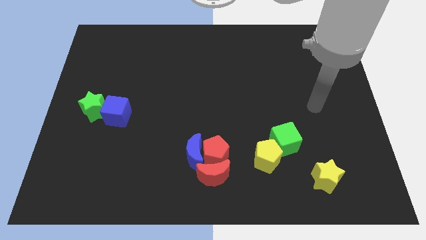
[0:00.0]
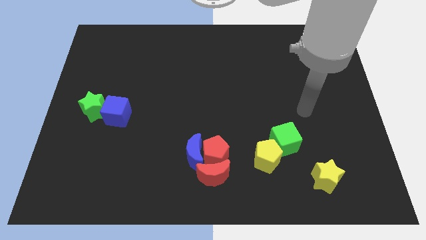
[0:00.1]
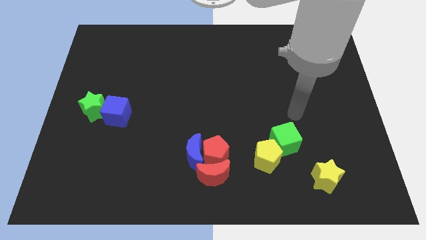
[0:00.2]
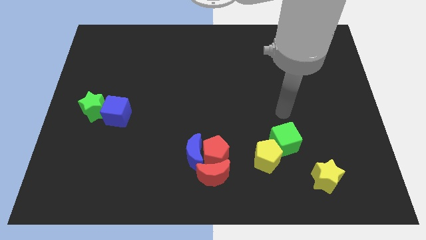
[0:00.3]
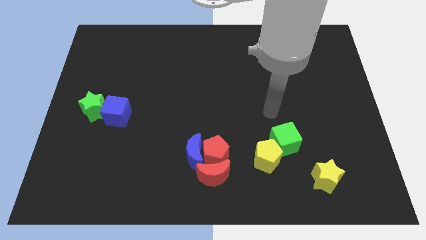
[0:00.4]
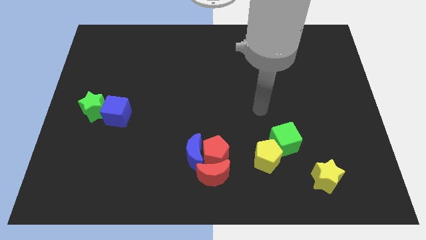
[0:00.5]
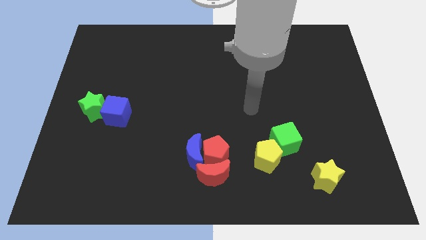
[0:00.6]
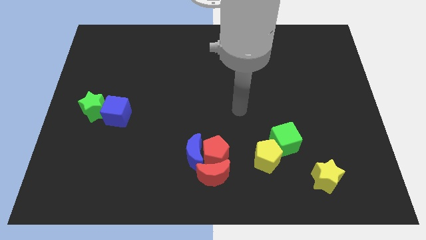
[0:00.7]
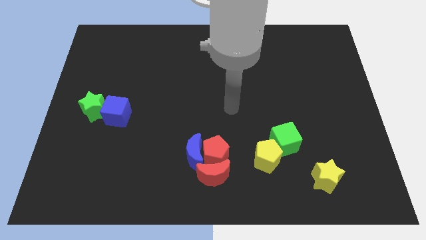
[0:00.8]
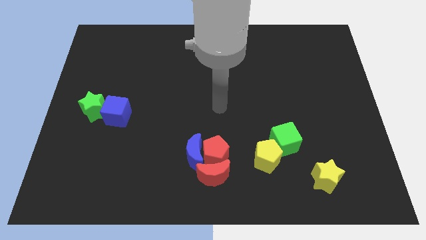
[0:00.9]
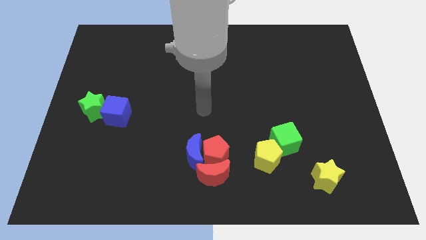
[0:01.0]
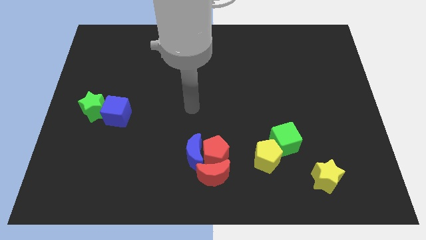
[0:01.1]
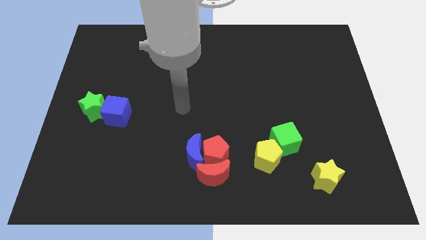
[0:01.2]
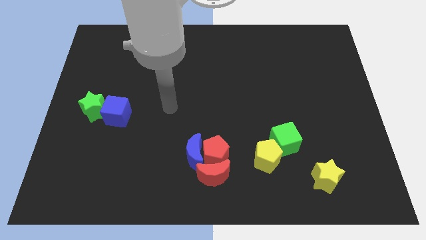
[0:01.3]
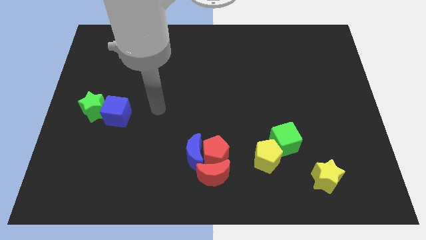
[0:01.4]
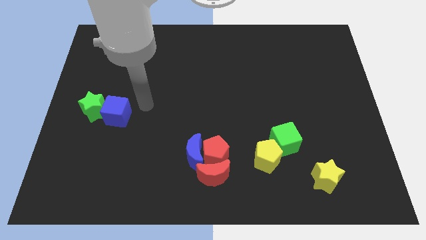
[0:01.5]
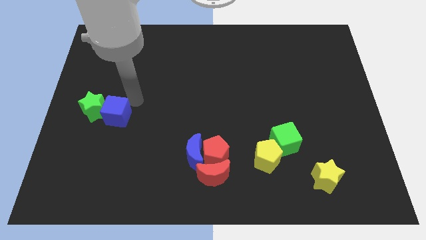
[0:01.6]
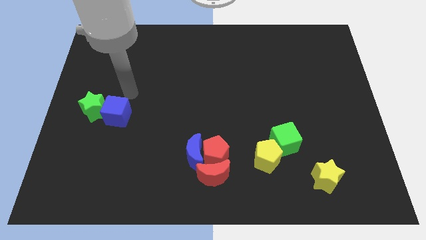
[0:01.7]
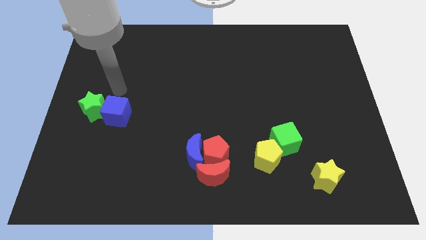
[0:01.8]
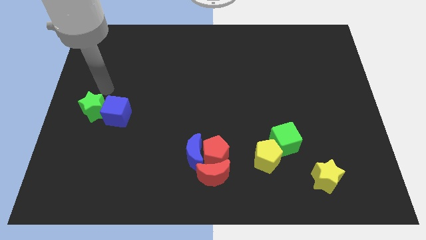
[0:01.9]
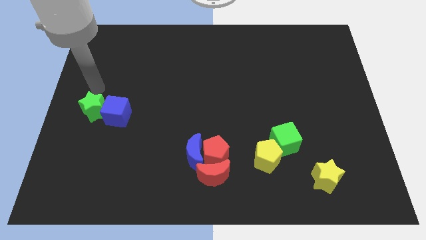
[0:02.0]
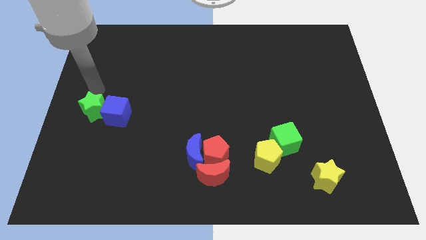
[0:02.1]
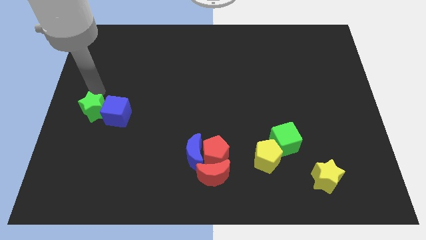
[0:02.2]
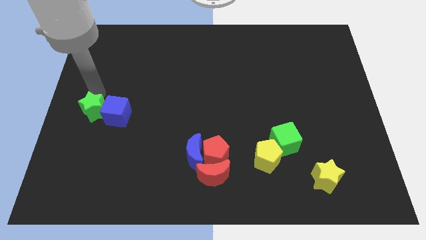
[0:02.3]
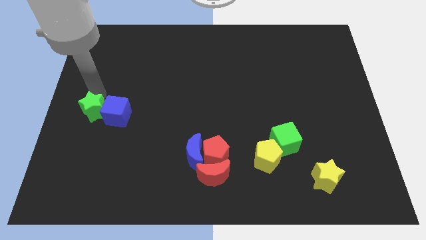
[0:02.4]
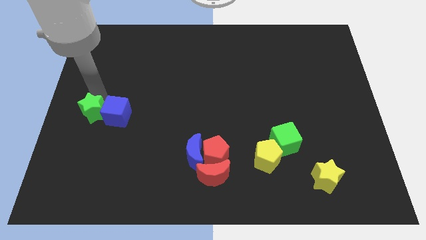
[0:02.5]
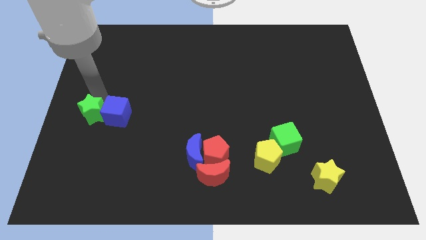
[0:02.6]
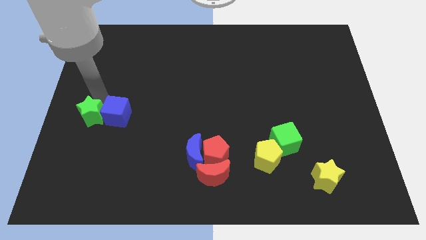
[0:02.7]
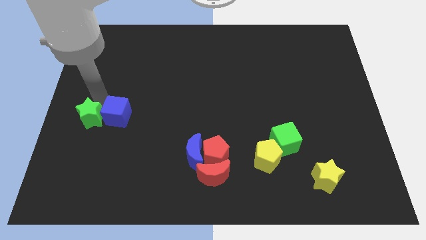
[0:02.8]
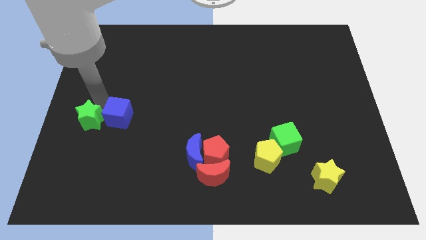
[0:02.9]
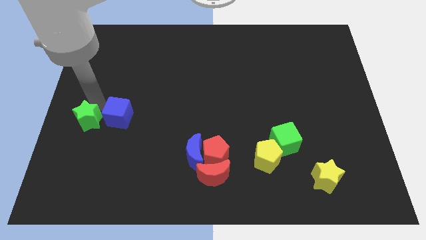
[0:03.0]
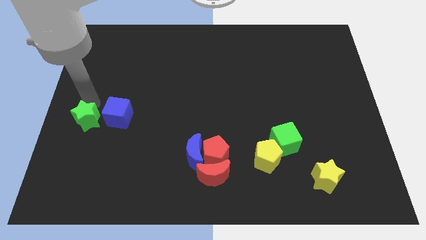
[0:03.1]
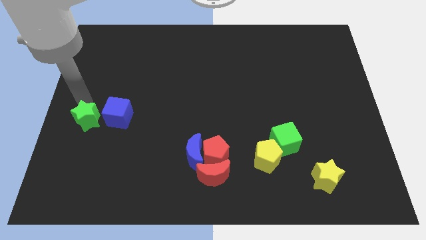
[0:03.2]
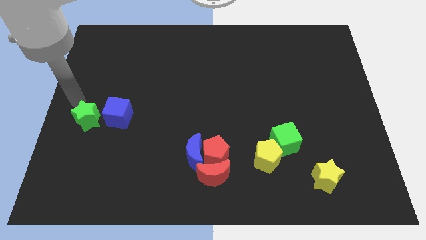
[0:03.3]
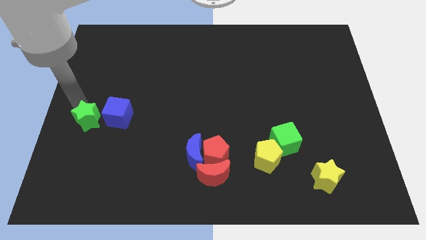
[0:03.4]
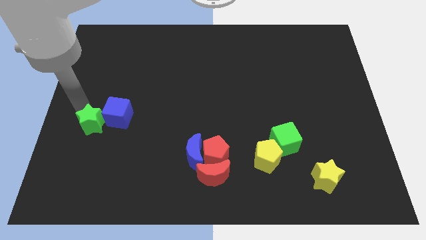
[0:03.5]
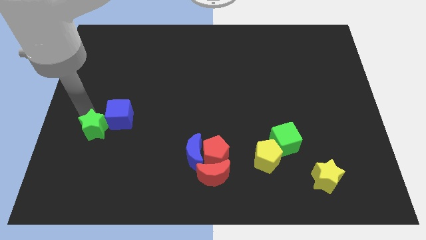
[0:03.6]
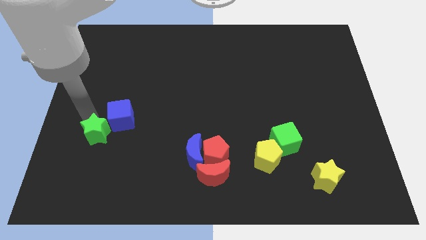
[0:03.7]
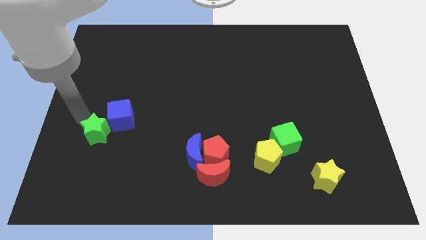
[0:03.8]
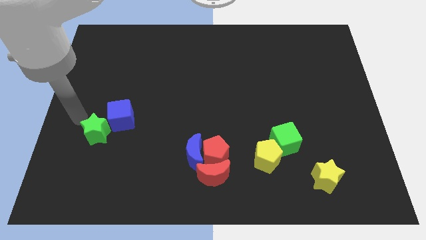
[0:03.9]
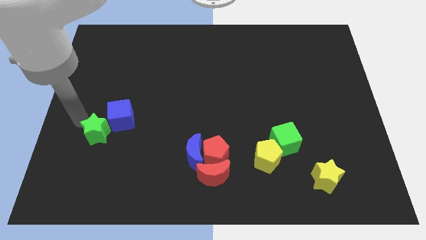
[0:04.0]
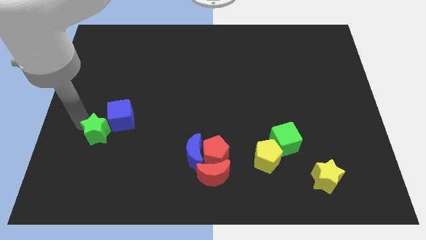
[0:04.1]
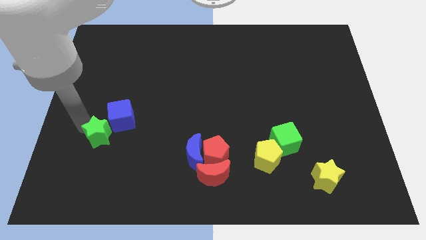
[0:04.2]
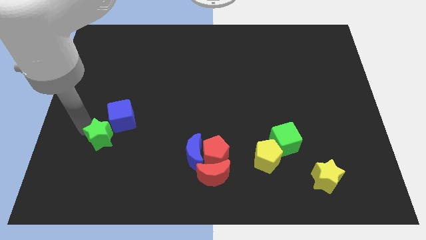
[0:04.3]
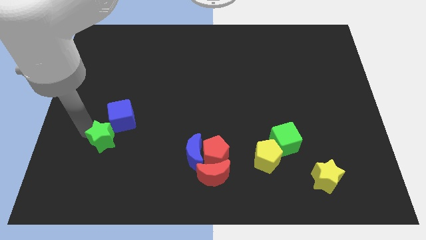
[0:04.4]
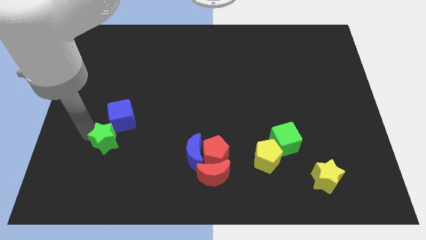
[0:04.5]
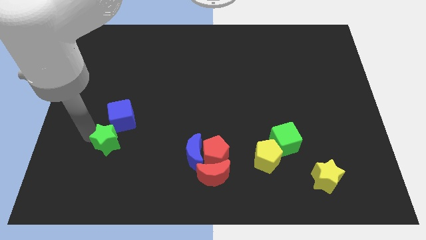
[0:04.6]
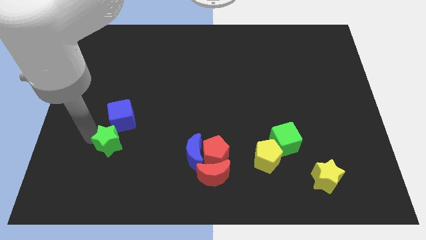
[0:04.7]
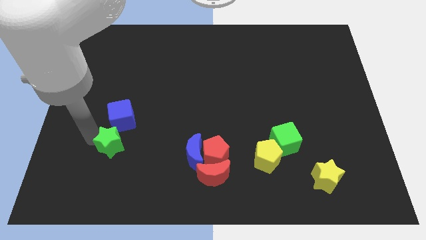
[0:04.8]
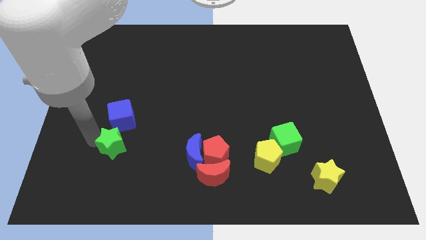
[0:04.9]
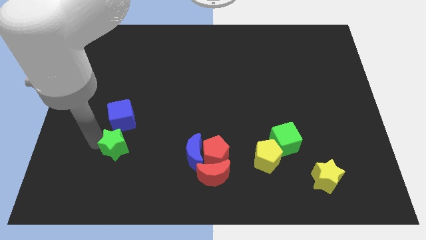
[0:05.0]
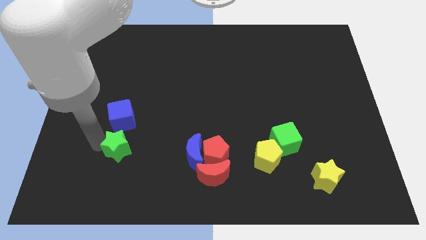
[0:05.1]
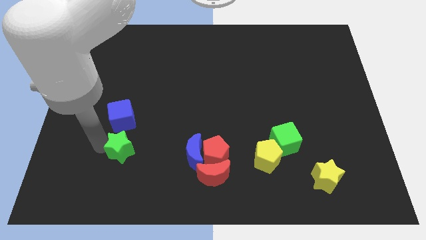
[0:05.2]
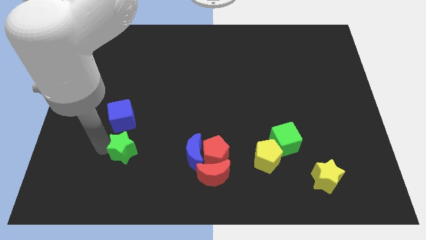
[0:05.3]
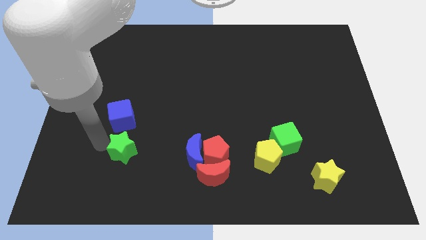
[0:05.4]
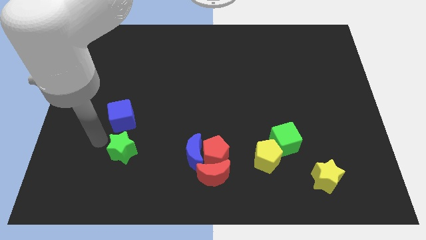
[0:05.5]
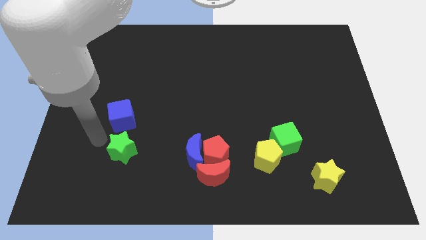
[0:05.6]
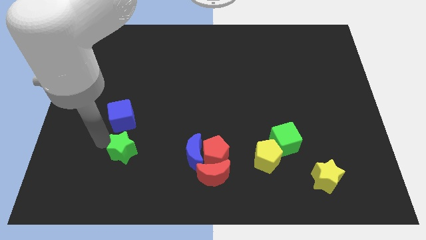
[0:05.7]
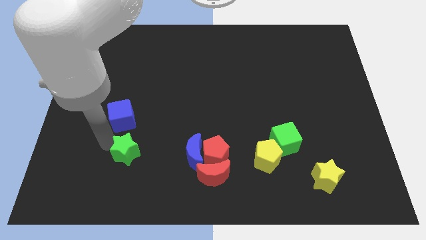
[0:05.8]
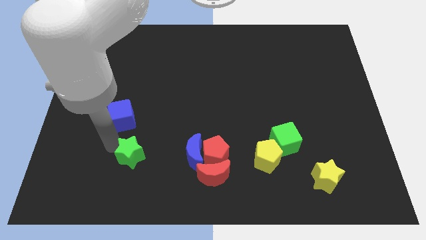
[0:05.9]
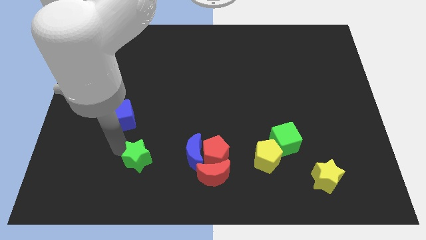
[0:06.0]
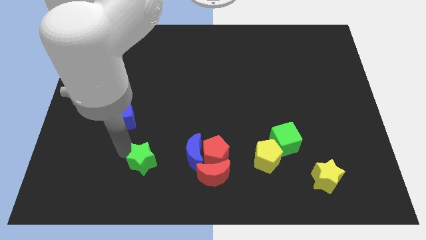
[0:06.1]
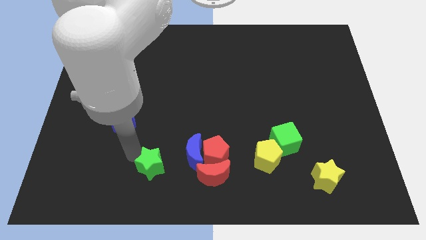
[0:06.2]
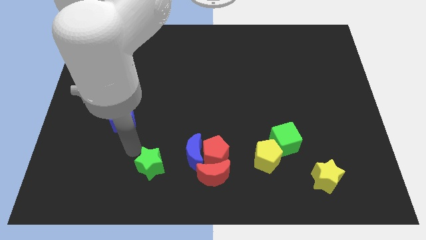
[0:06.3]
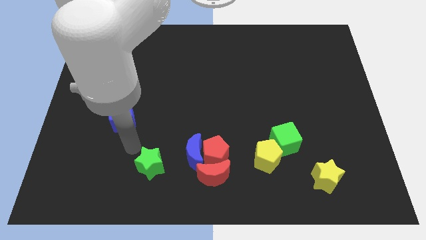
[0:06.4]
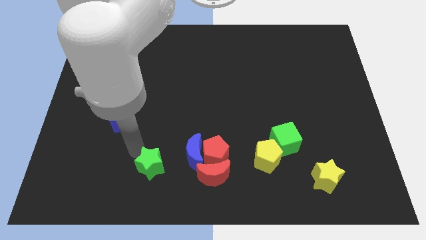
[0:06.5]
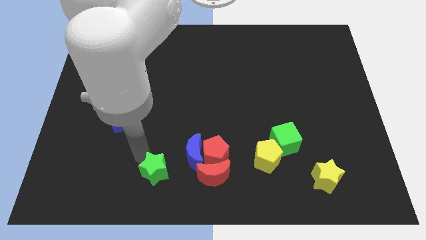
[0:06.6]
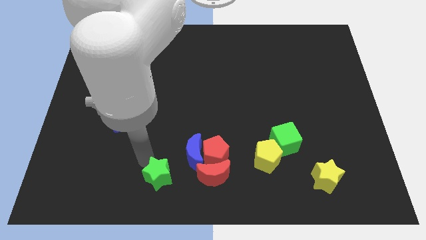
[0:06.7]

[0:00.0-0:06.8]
push the green star to the bottom
